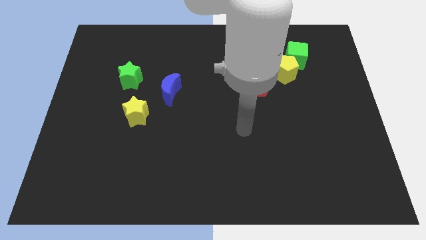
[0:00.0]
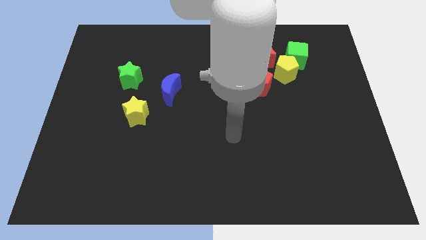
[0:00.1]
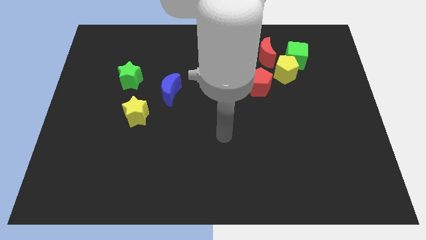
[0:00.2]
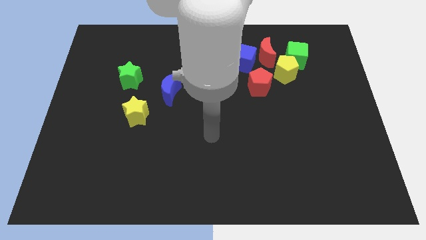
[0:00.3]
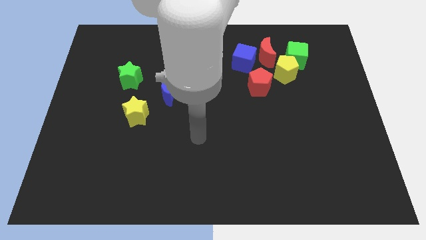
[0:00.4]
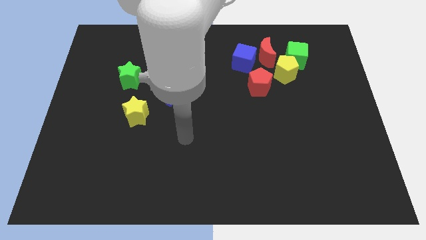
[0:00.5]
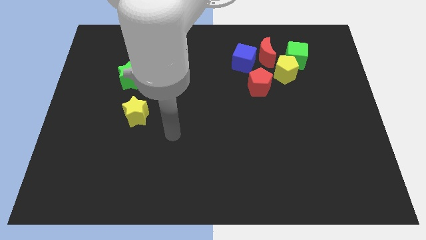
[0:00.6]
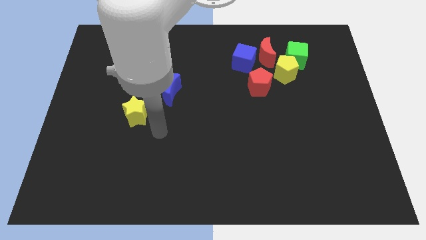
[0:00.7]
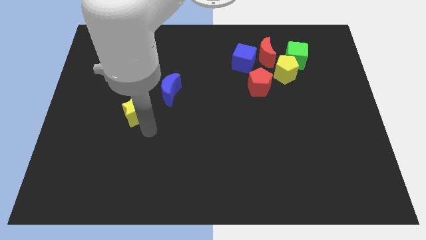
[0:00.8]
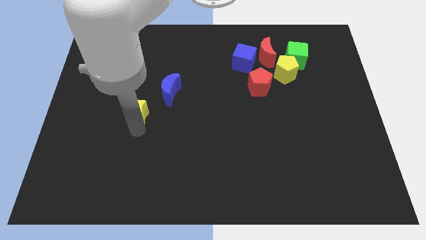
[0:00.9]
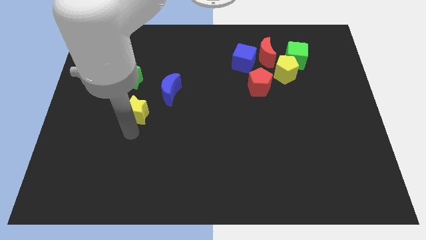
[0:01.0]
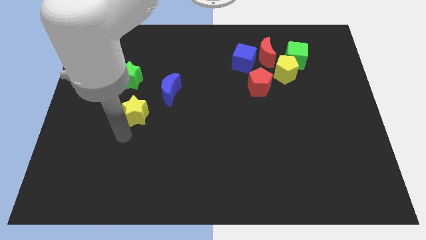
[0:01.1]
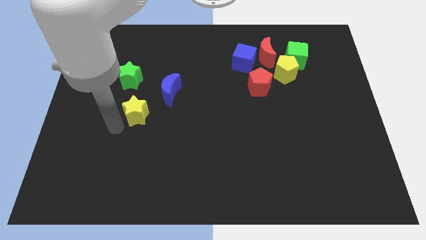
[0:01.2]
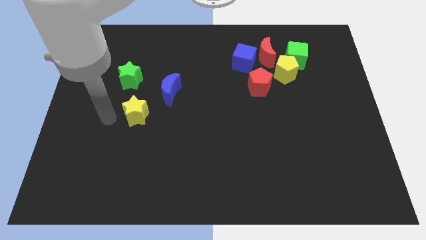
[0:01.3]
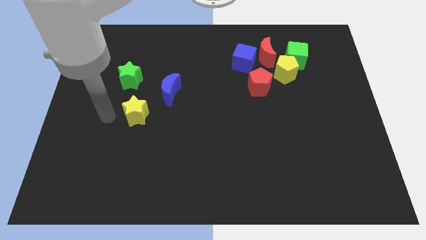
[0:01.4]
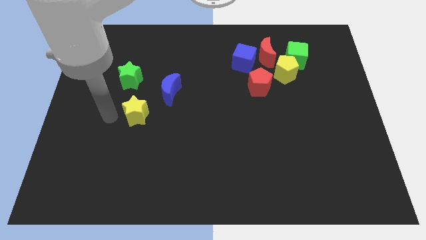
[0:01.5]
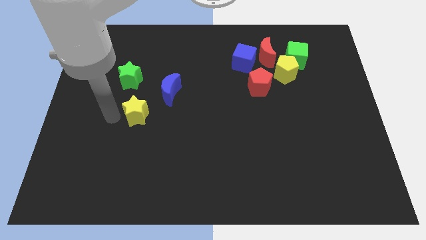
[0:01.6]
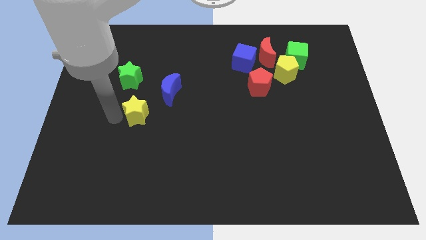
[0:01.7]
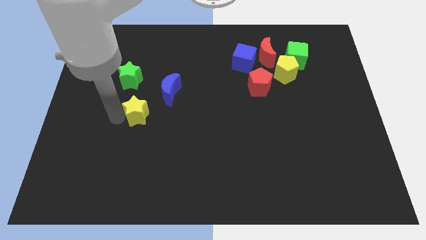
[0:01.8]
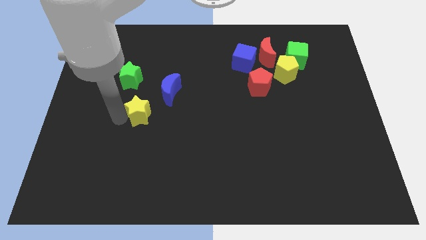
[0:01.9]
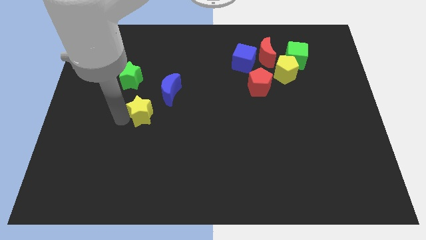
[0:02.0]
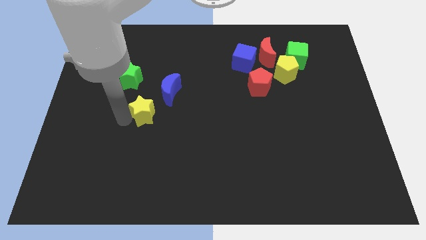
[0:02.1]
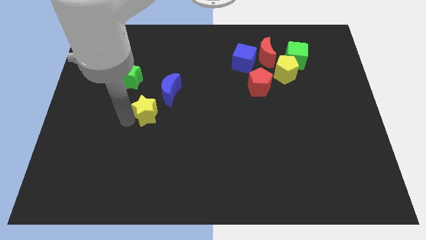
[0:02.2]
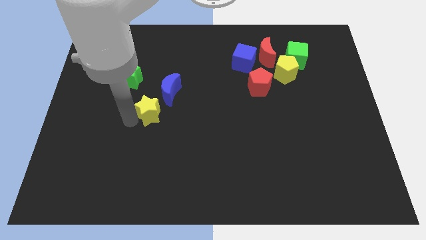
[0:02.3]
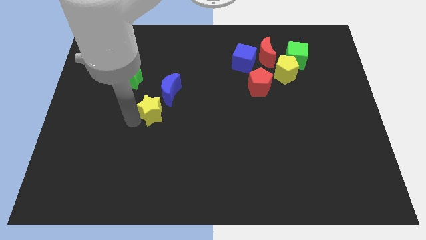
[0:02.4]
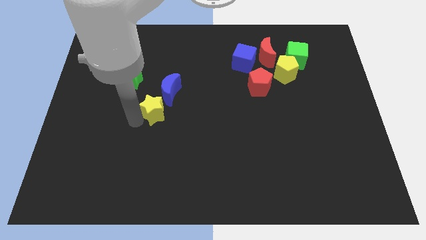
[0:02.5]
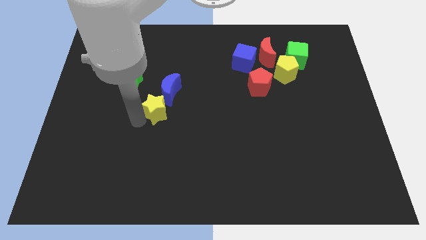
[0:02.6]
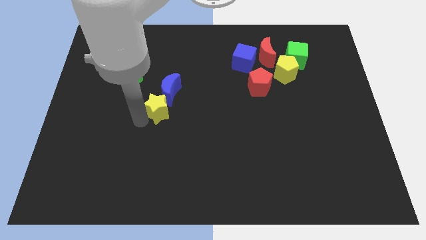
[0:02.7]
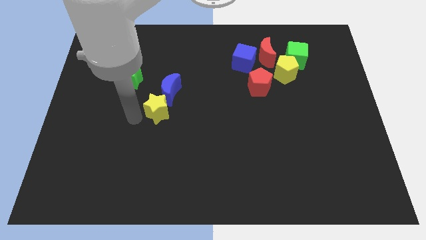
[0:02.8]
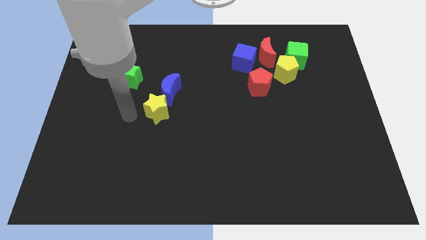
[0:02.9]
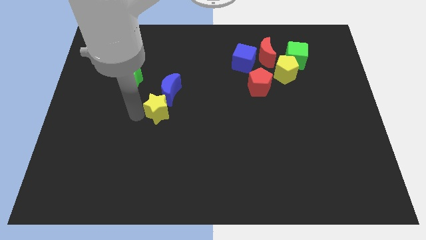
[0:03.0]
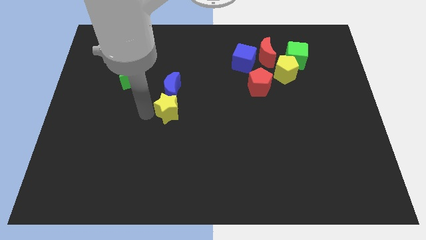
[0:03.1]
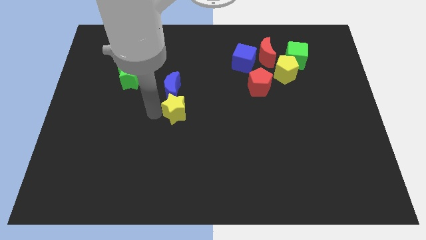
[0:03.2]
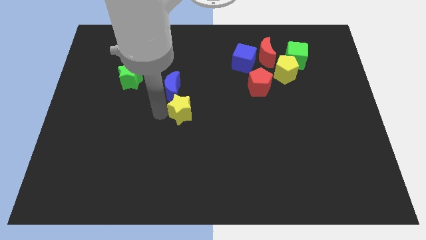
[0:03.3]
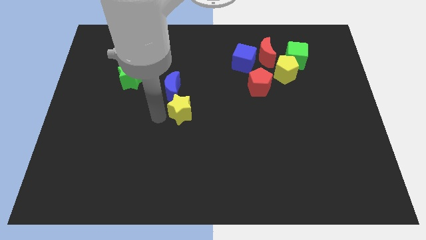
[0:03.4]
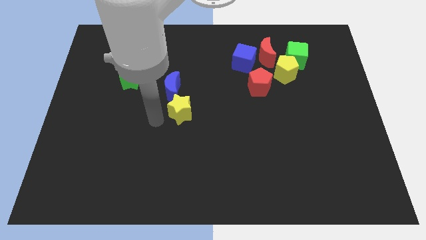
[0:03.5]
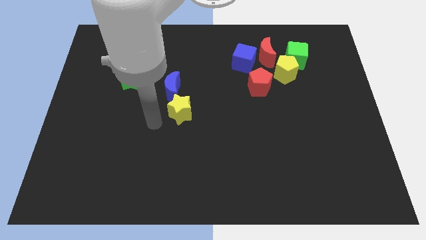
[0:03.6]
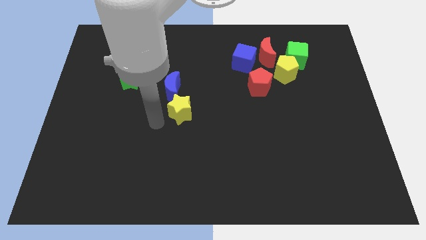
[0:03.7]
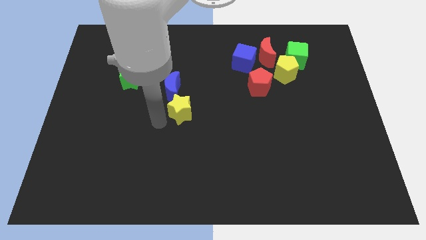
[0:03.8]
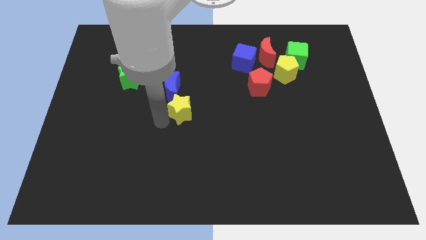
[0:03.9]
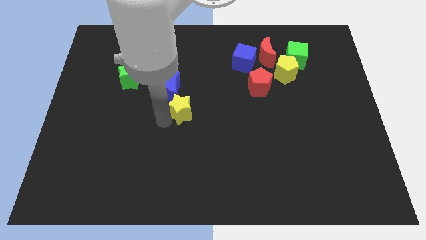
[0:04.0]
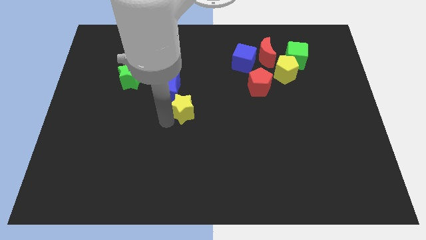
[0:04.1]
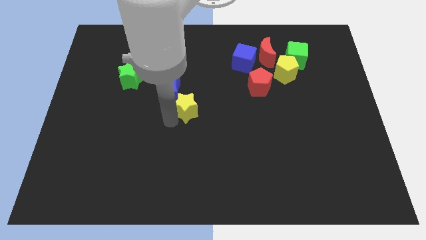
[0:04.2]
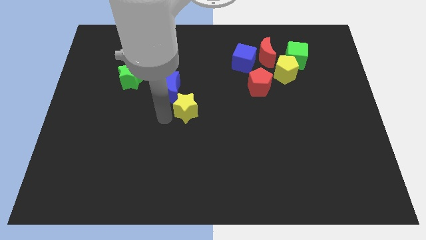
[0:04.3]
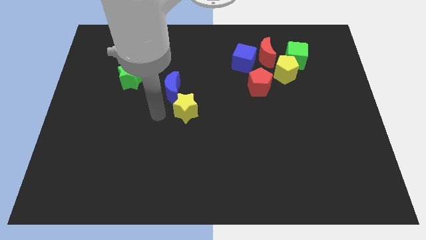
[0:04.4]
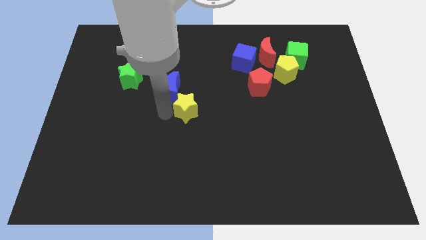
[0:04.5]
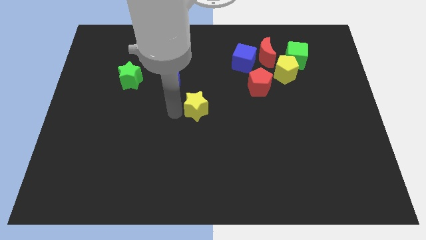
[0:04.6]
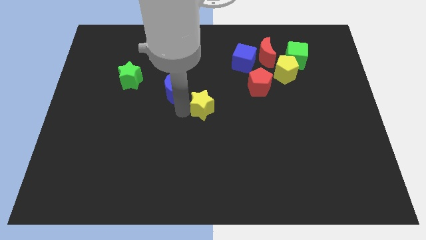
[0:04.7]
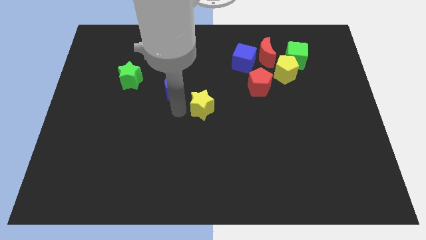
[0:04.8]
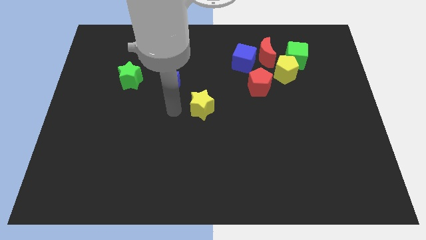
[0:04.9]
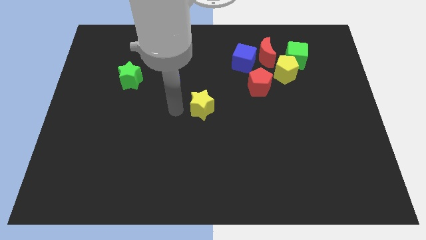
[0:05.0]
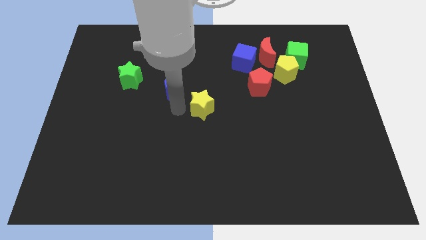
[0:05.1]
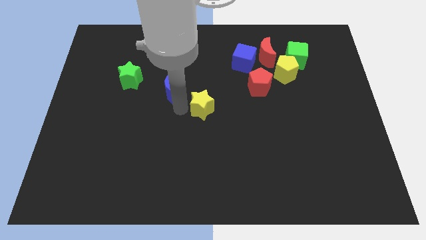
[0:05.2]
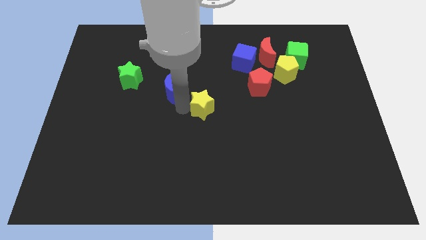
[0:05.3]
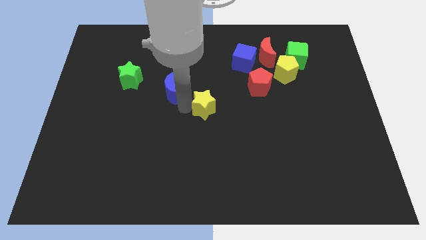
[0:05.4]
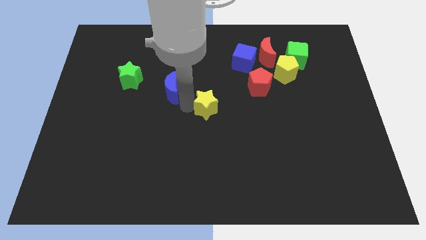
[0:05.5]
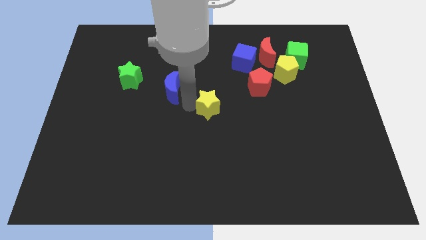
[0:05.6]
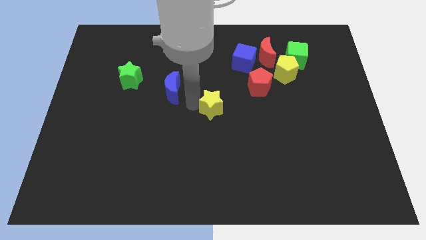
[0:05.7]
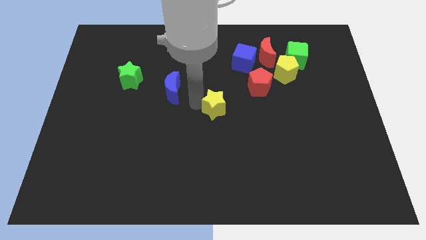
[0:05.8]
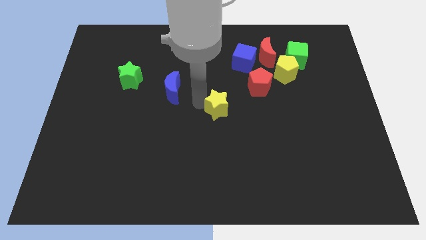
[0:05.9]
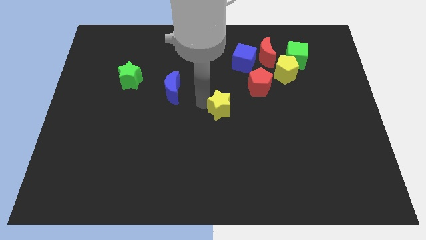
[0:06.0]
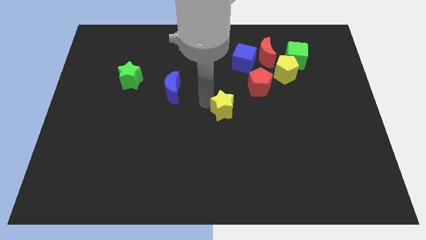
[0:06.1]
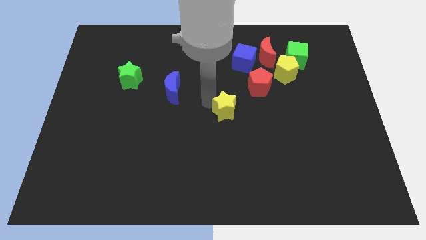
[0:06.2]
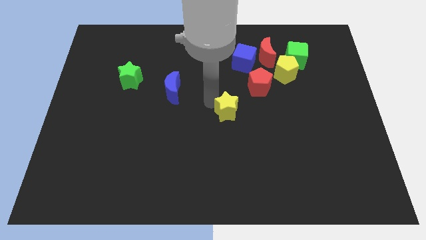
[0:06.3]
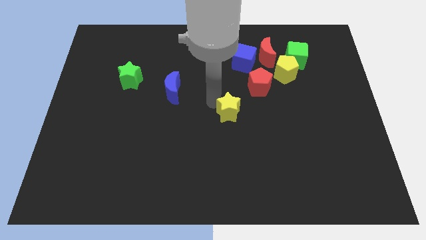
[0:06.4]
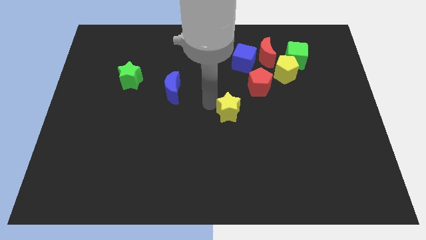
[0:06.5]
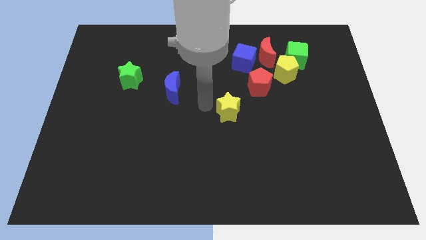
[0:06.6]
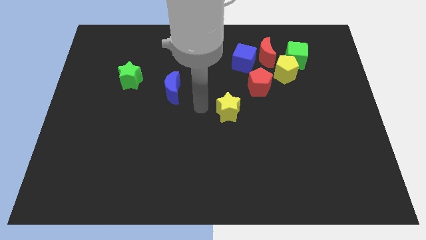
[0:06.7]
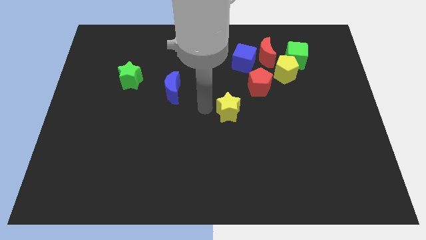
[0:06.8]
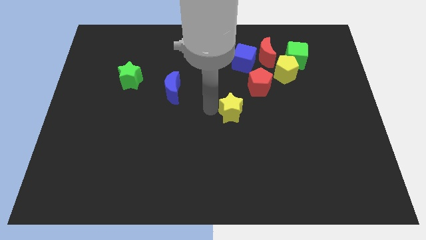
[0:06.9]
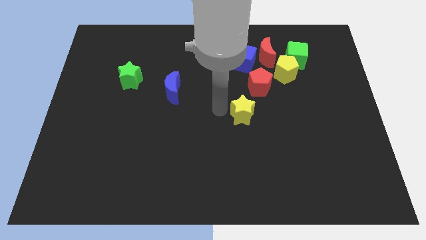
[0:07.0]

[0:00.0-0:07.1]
move the yellow star below the red pentagon

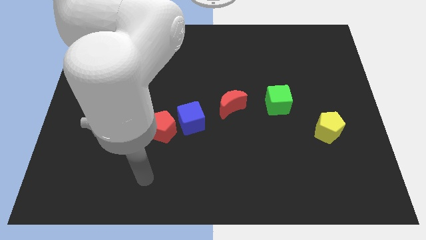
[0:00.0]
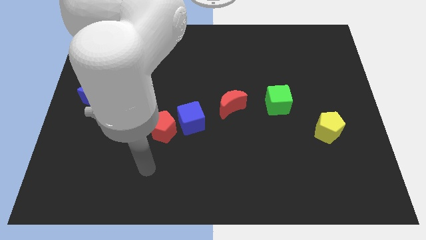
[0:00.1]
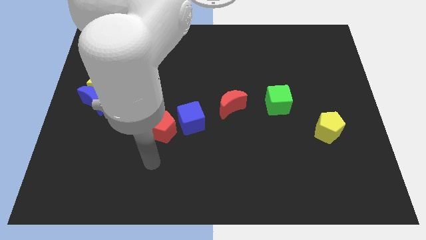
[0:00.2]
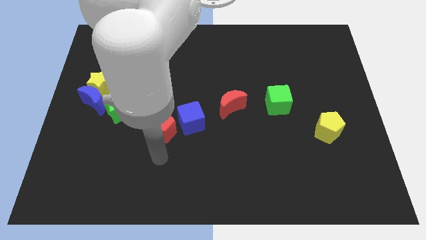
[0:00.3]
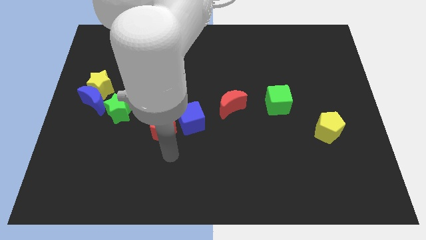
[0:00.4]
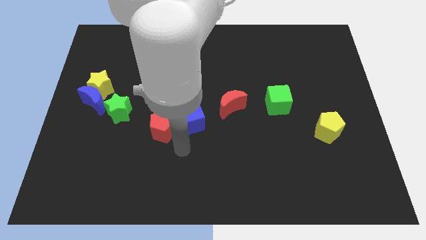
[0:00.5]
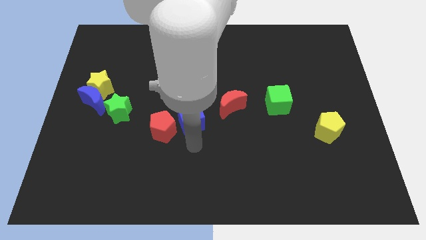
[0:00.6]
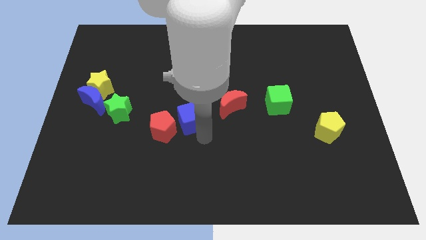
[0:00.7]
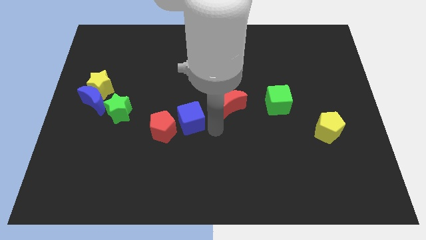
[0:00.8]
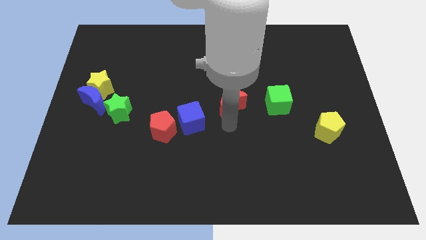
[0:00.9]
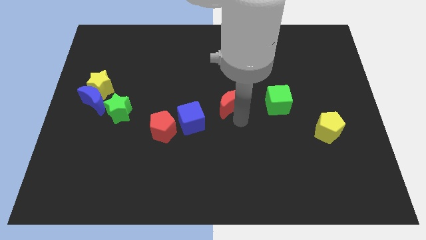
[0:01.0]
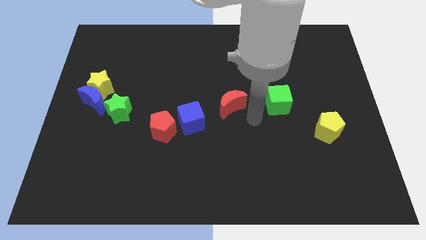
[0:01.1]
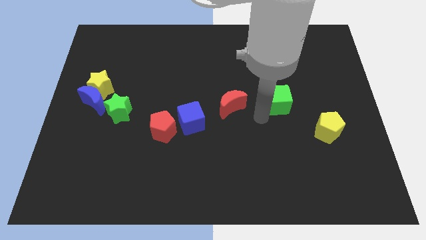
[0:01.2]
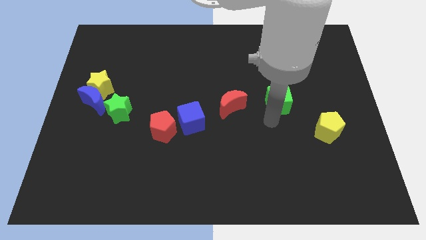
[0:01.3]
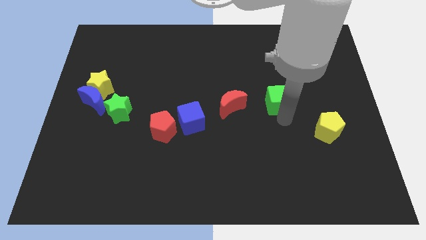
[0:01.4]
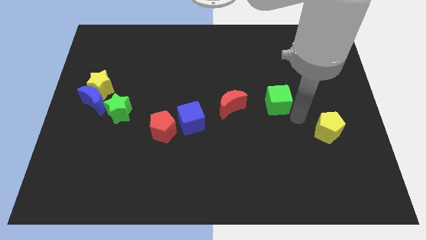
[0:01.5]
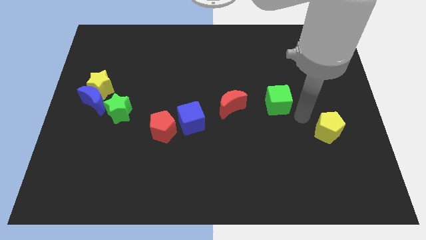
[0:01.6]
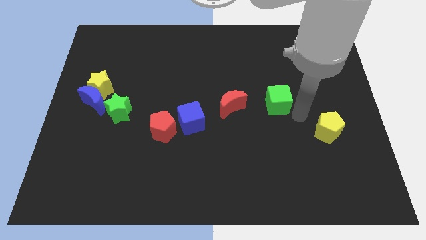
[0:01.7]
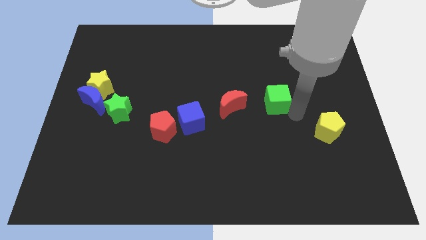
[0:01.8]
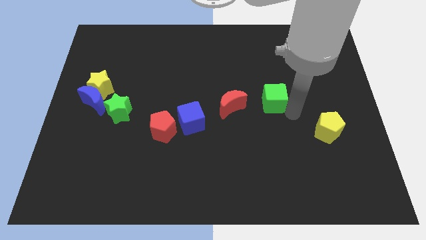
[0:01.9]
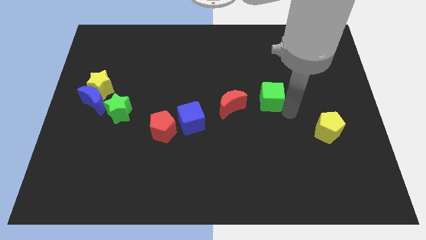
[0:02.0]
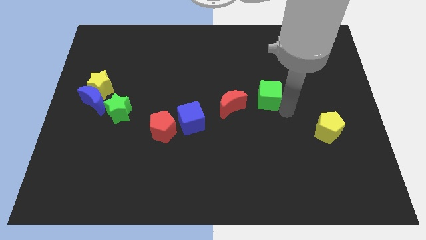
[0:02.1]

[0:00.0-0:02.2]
push the green cube to the top right side of the red moon
